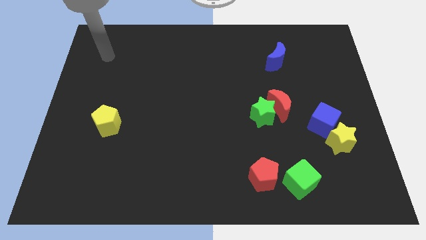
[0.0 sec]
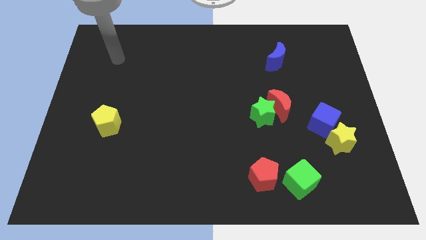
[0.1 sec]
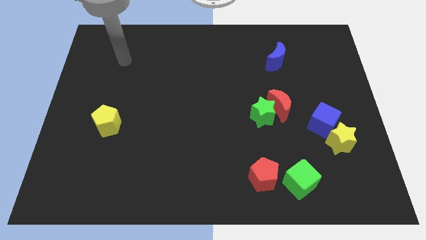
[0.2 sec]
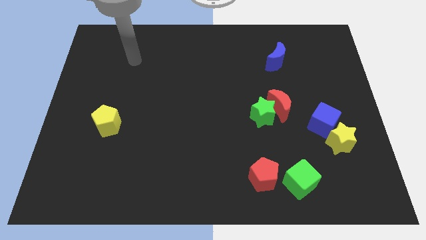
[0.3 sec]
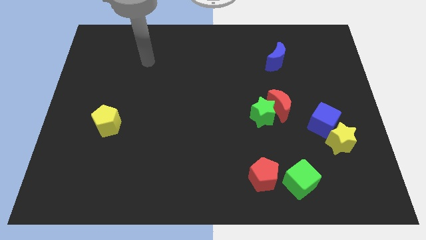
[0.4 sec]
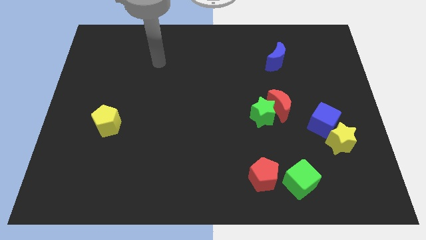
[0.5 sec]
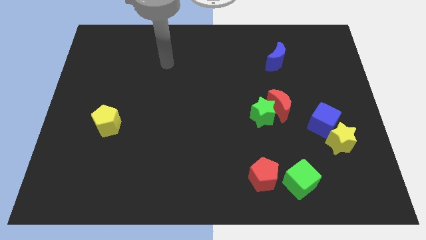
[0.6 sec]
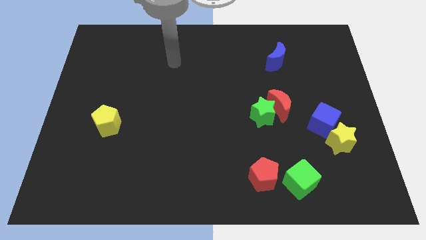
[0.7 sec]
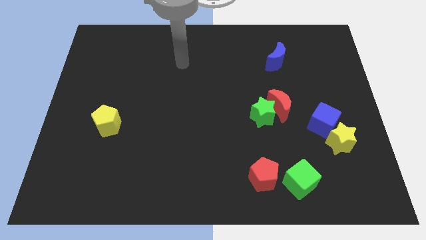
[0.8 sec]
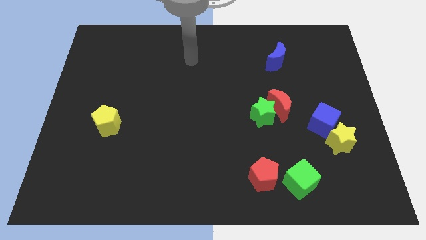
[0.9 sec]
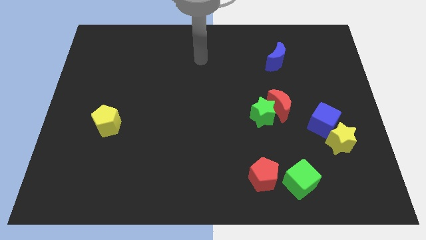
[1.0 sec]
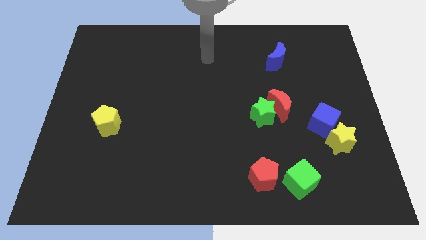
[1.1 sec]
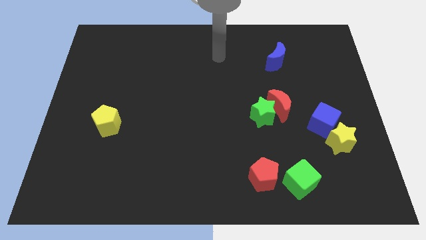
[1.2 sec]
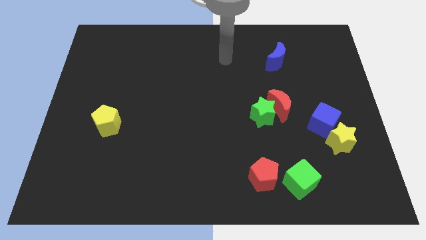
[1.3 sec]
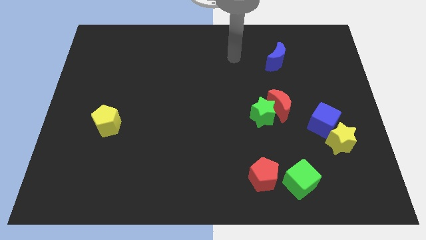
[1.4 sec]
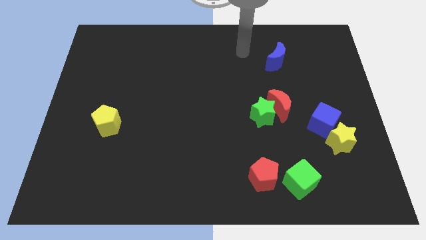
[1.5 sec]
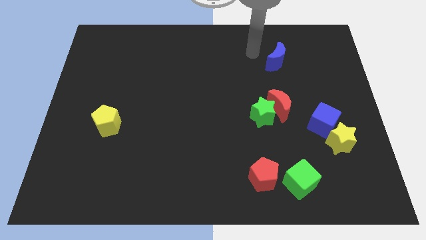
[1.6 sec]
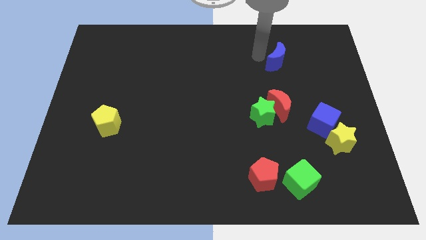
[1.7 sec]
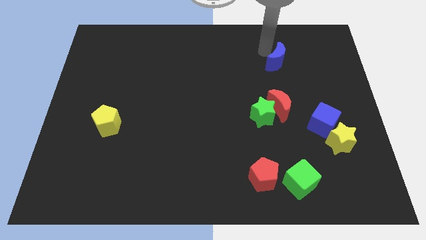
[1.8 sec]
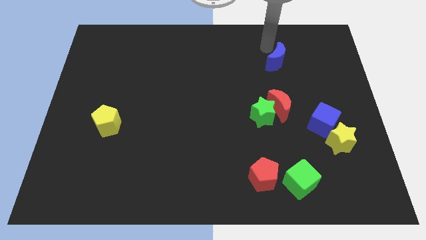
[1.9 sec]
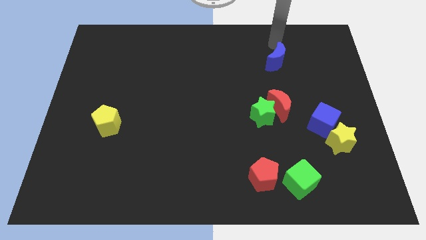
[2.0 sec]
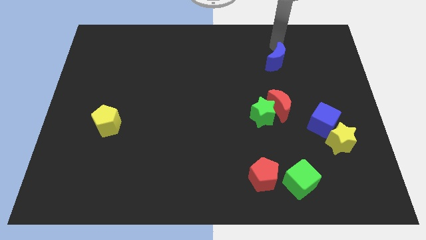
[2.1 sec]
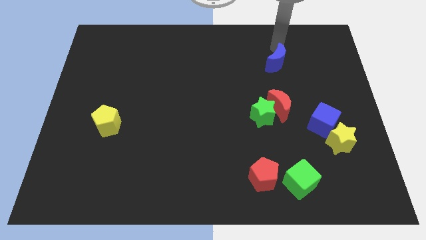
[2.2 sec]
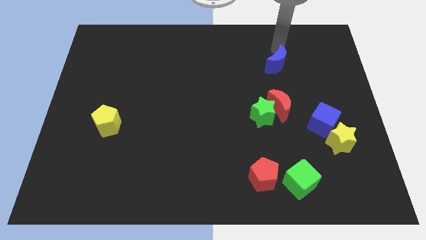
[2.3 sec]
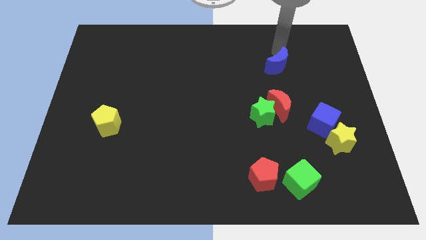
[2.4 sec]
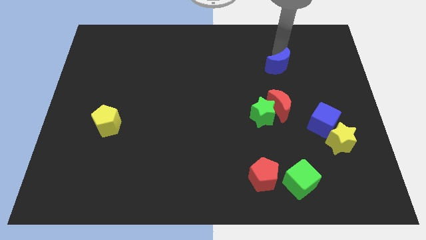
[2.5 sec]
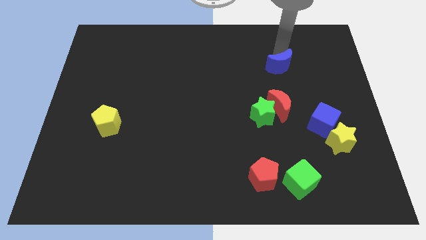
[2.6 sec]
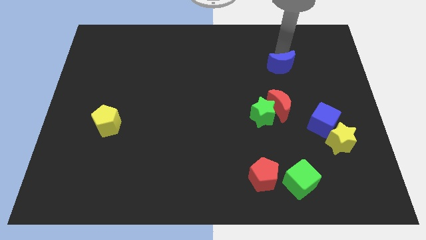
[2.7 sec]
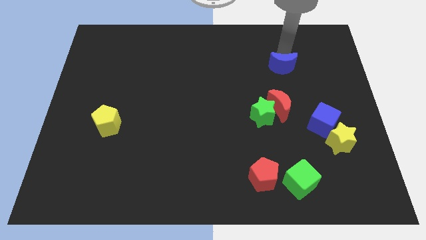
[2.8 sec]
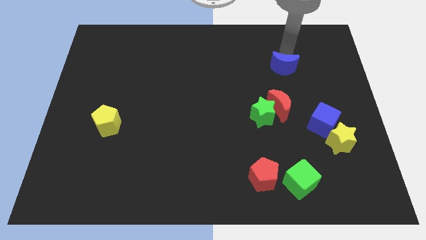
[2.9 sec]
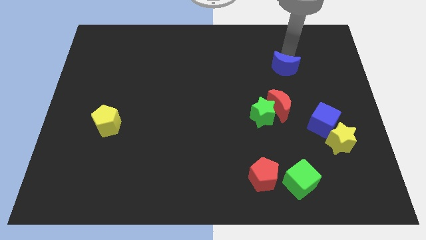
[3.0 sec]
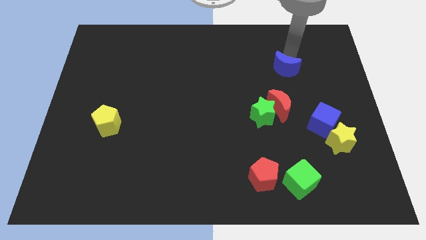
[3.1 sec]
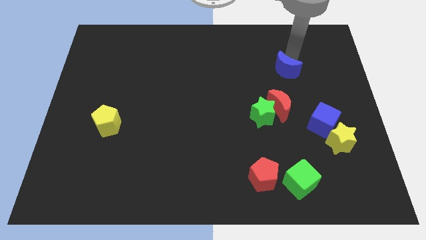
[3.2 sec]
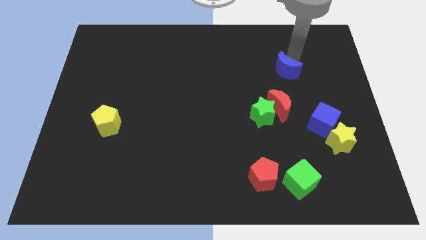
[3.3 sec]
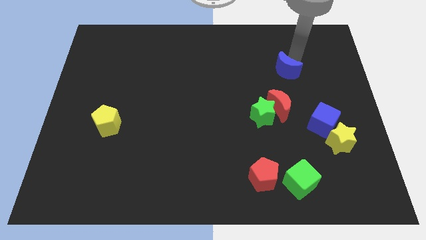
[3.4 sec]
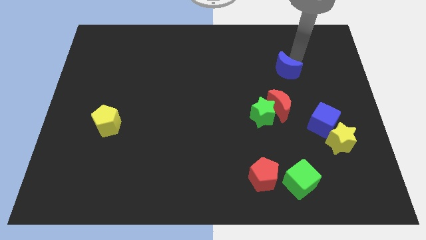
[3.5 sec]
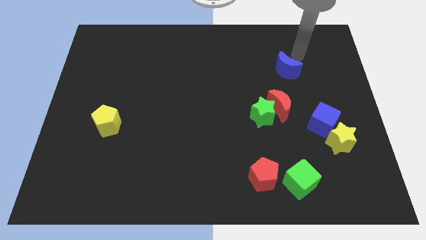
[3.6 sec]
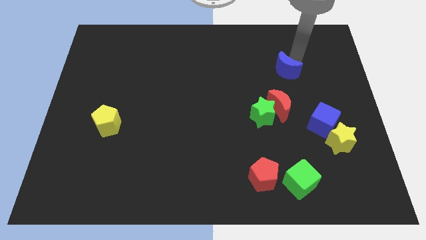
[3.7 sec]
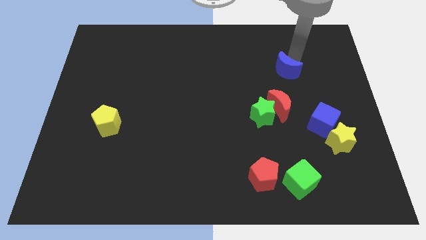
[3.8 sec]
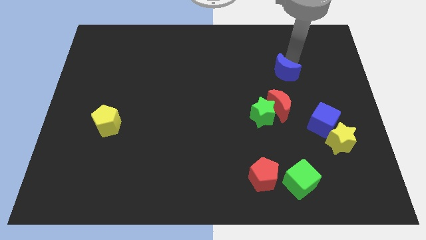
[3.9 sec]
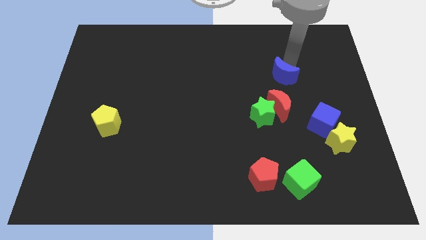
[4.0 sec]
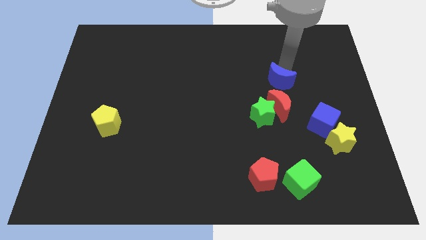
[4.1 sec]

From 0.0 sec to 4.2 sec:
move the blue moon to the top right of the green star

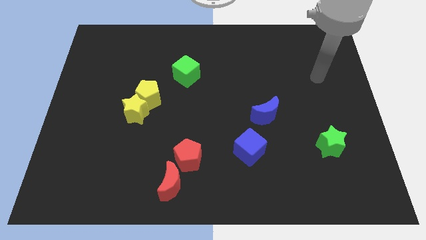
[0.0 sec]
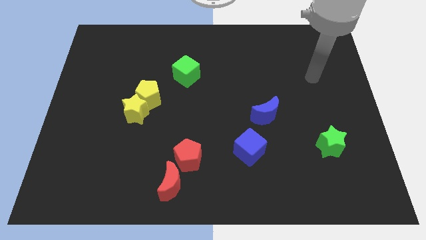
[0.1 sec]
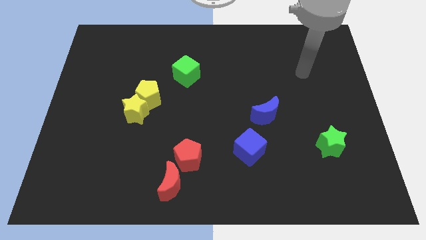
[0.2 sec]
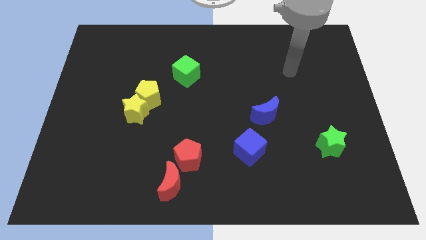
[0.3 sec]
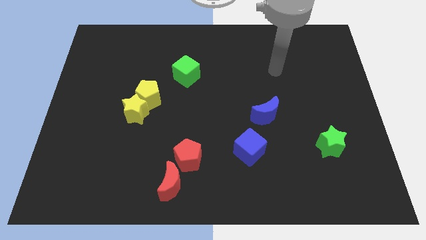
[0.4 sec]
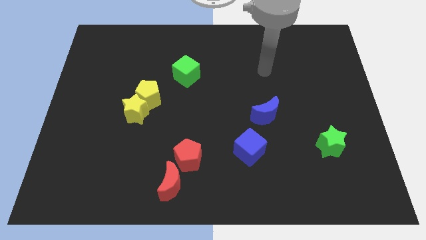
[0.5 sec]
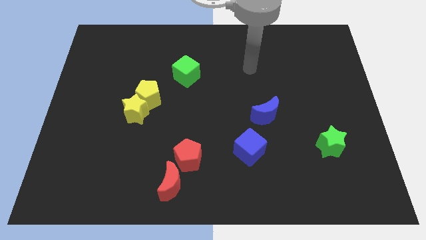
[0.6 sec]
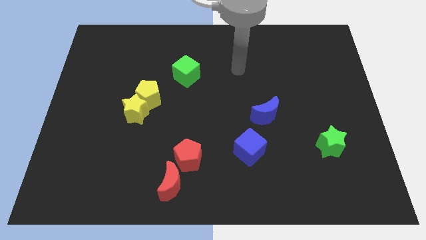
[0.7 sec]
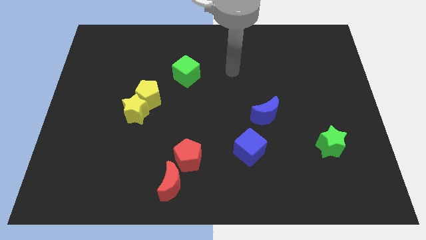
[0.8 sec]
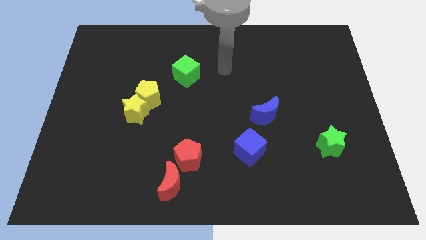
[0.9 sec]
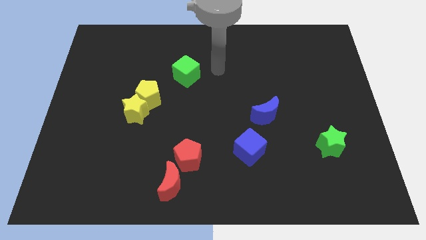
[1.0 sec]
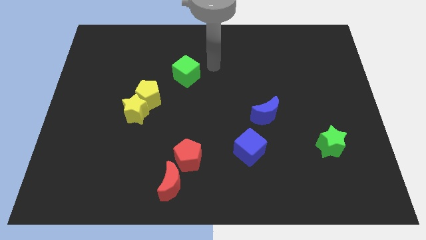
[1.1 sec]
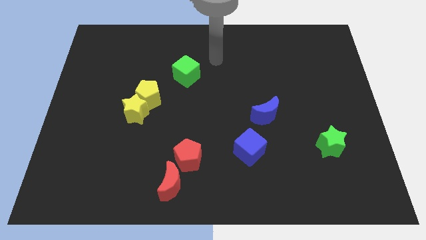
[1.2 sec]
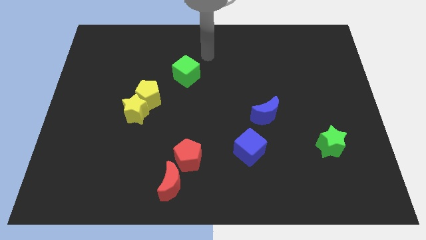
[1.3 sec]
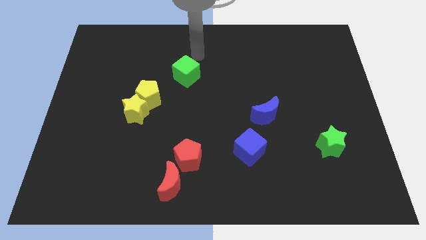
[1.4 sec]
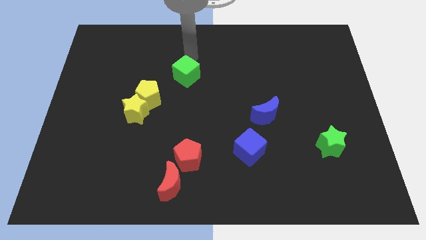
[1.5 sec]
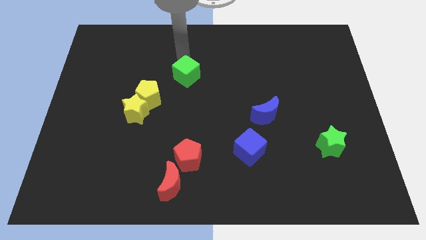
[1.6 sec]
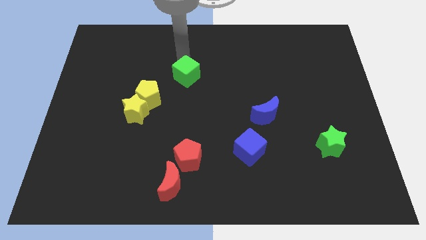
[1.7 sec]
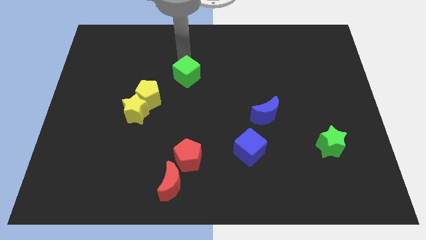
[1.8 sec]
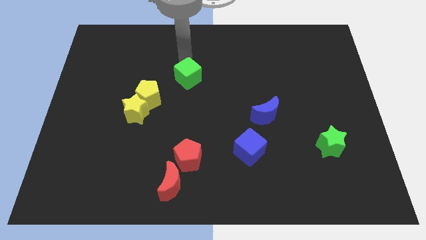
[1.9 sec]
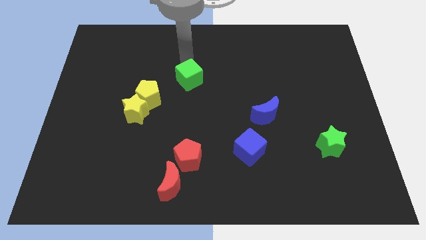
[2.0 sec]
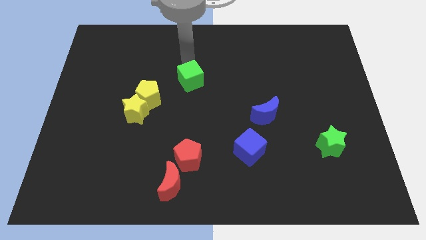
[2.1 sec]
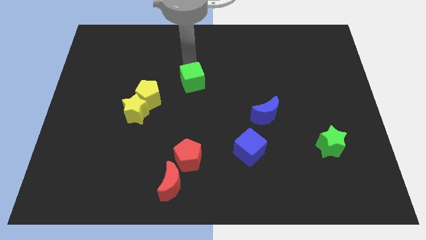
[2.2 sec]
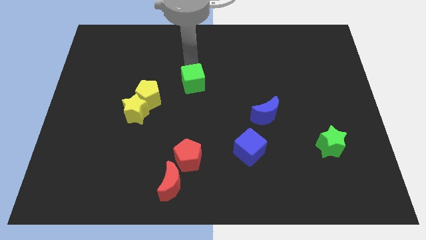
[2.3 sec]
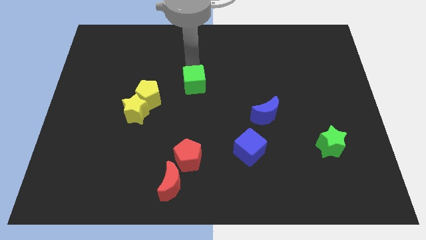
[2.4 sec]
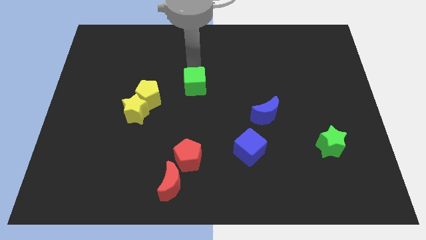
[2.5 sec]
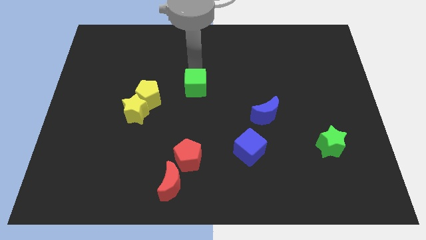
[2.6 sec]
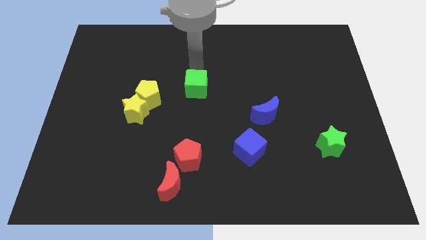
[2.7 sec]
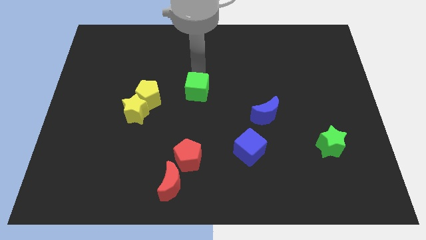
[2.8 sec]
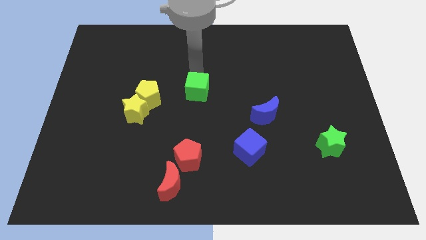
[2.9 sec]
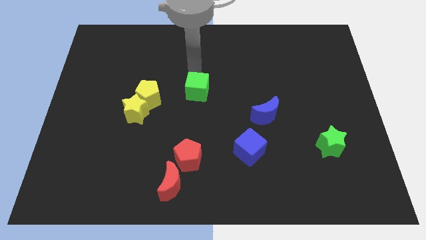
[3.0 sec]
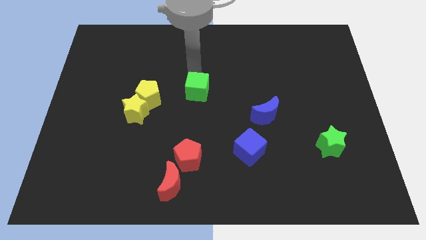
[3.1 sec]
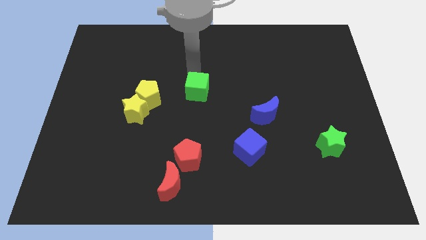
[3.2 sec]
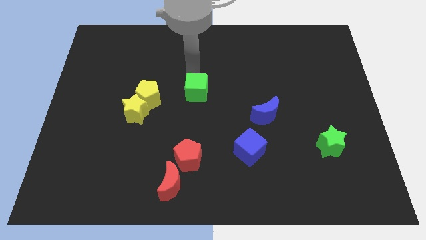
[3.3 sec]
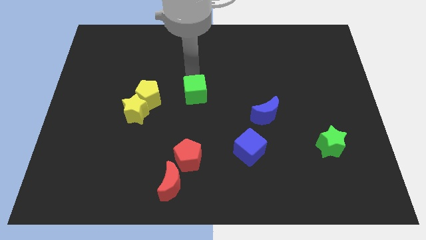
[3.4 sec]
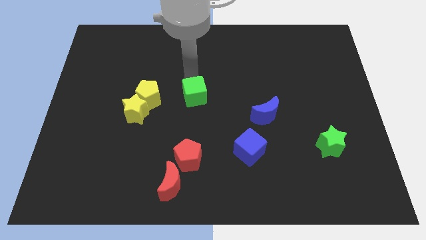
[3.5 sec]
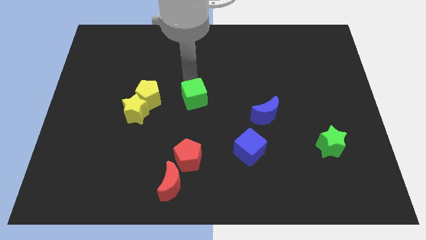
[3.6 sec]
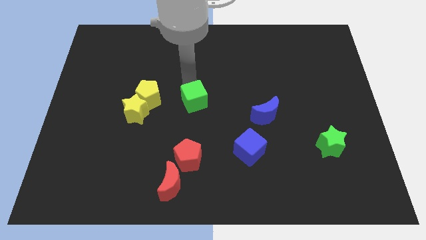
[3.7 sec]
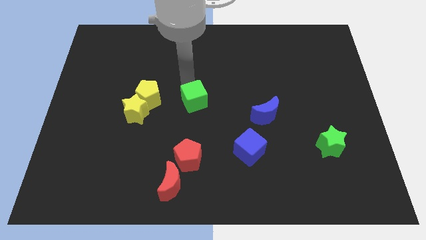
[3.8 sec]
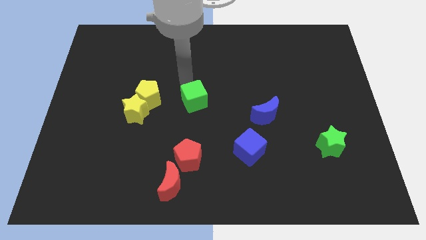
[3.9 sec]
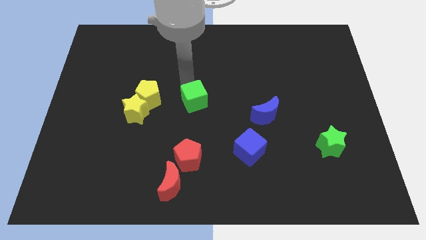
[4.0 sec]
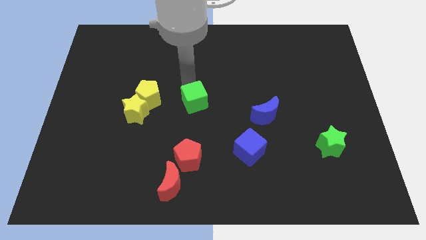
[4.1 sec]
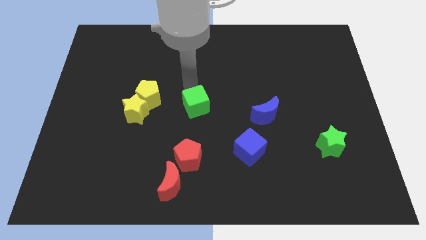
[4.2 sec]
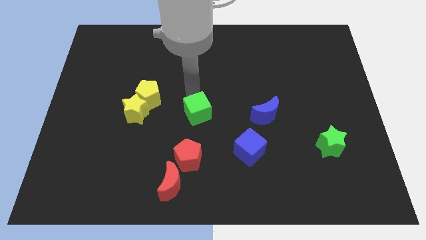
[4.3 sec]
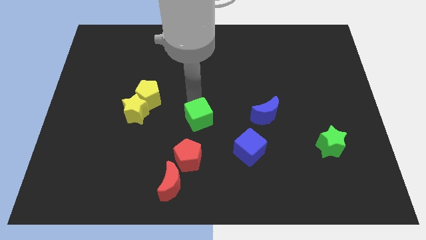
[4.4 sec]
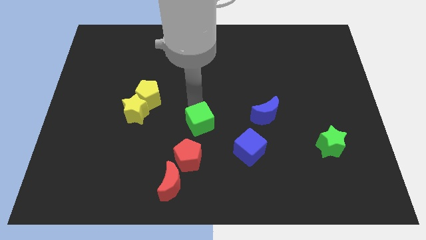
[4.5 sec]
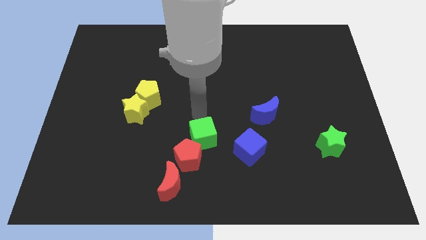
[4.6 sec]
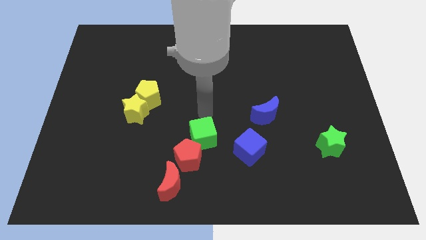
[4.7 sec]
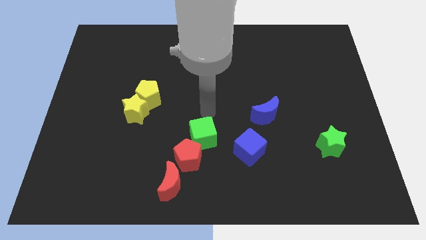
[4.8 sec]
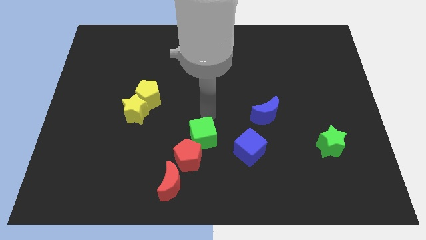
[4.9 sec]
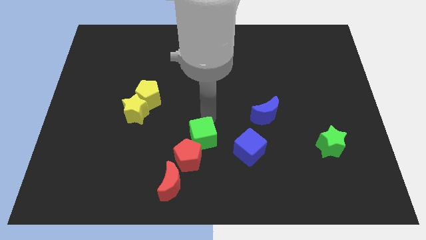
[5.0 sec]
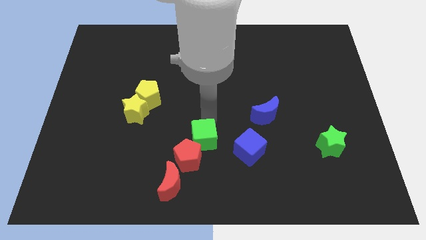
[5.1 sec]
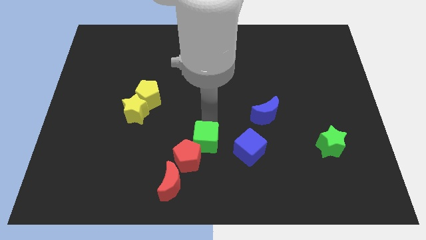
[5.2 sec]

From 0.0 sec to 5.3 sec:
slide the green cube to the top right side of the red moon
